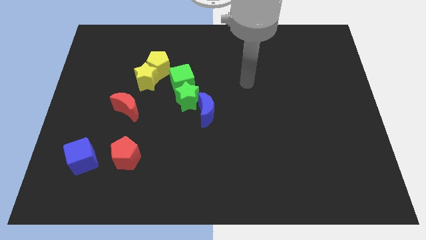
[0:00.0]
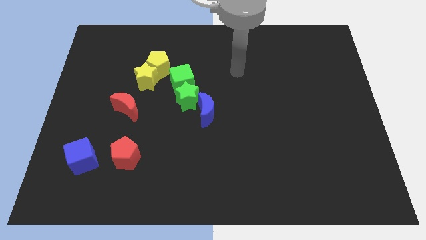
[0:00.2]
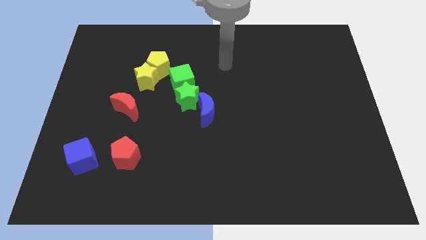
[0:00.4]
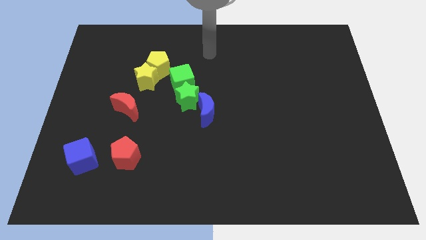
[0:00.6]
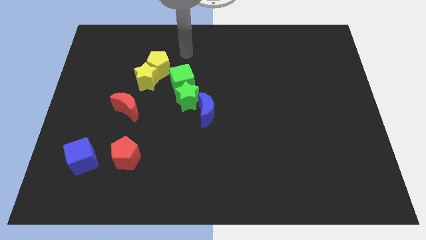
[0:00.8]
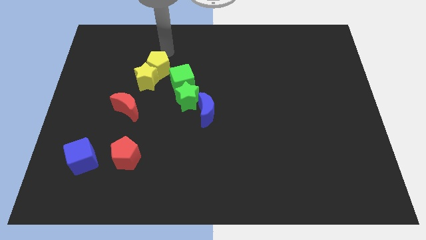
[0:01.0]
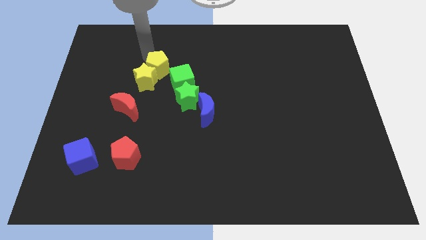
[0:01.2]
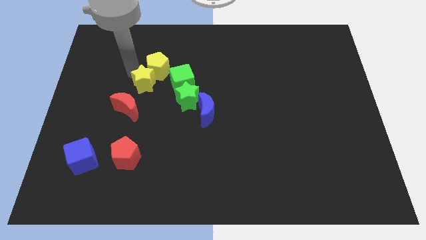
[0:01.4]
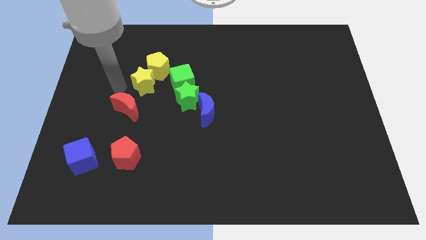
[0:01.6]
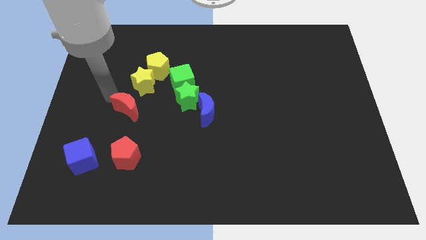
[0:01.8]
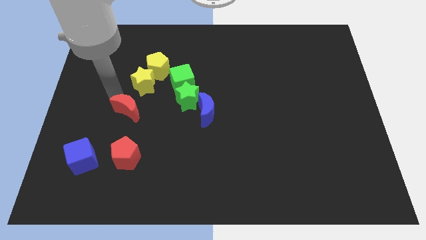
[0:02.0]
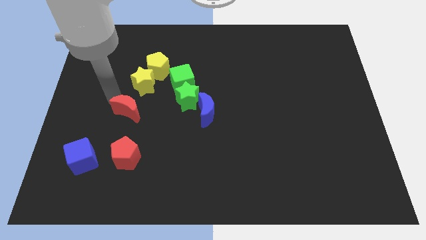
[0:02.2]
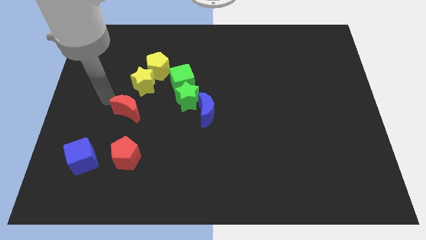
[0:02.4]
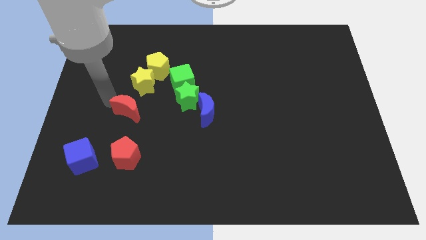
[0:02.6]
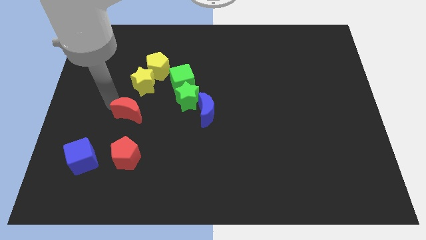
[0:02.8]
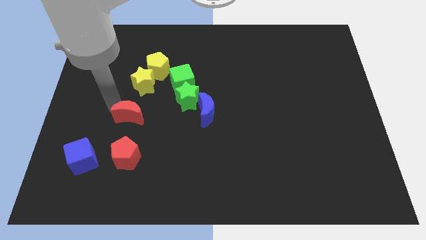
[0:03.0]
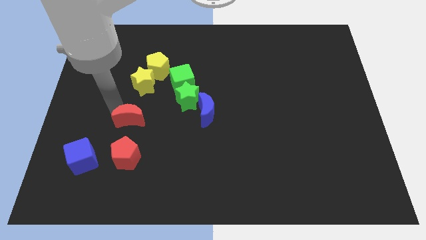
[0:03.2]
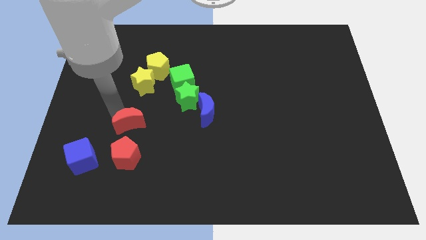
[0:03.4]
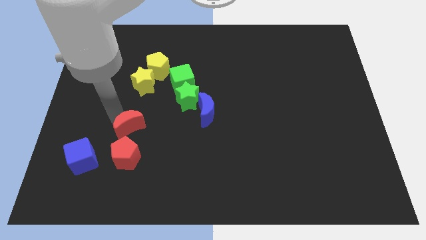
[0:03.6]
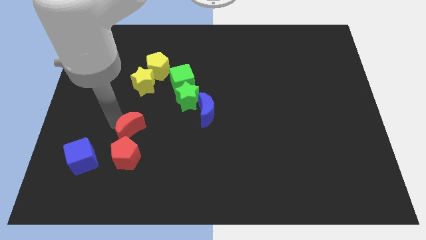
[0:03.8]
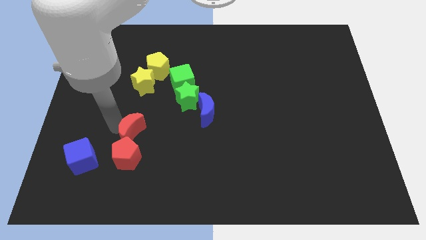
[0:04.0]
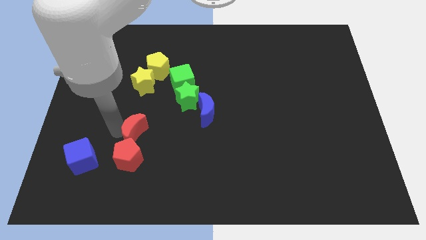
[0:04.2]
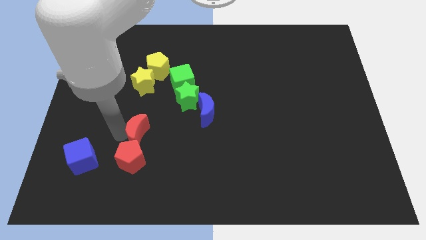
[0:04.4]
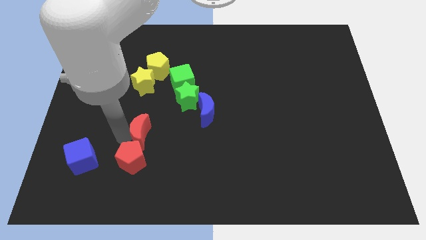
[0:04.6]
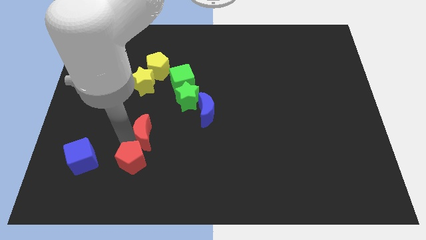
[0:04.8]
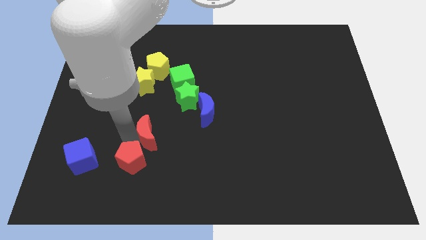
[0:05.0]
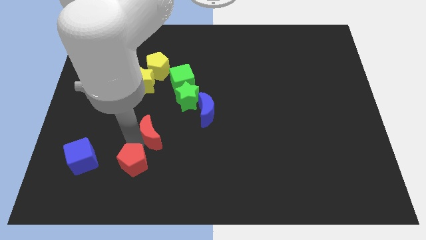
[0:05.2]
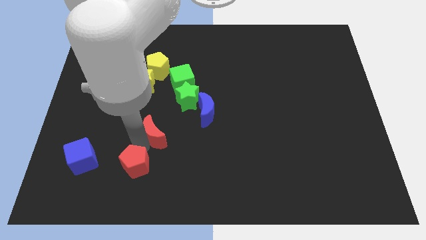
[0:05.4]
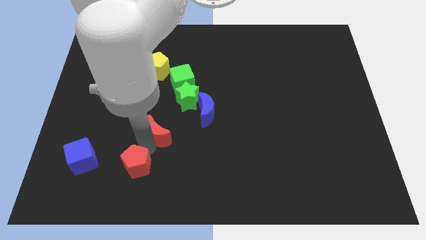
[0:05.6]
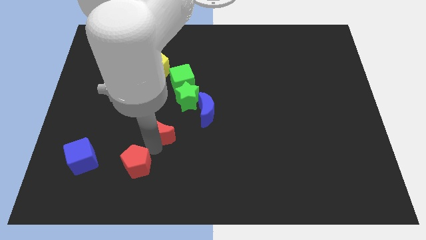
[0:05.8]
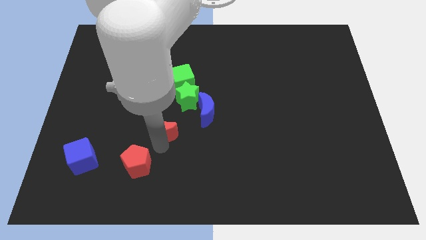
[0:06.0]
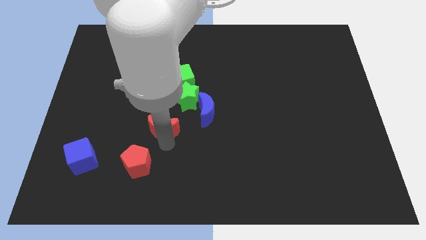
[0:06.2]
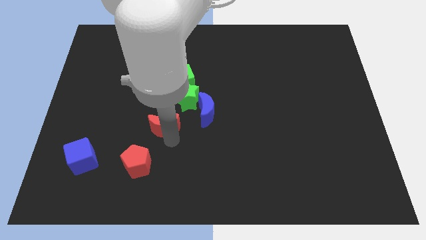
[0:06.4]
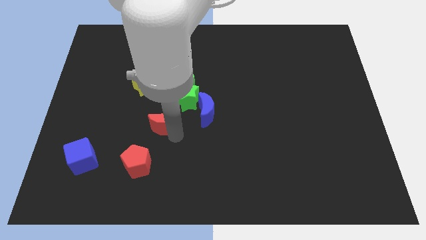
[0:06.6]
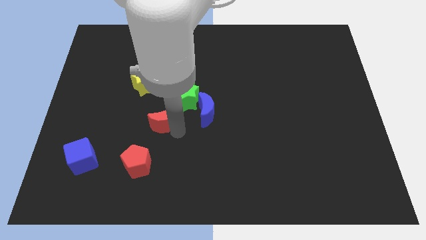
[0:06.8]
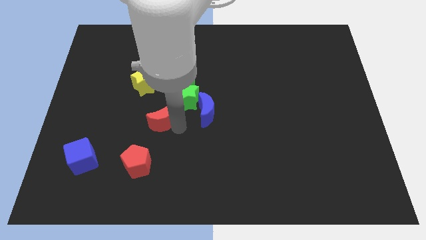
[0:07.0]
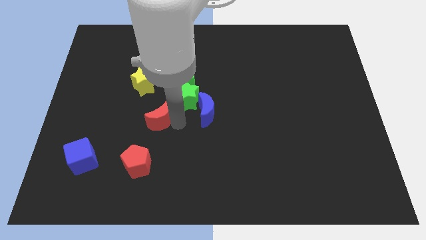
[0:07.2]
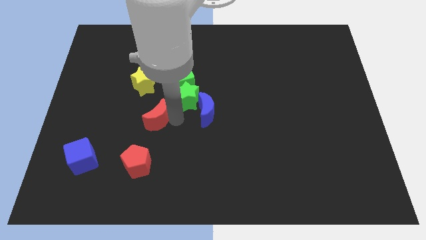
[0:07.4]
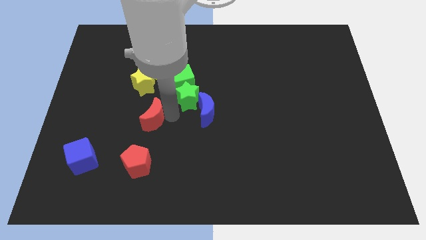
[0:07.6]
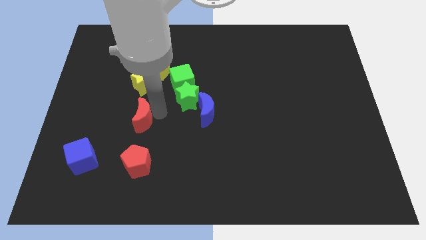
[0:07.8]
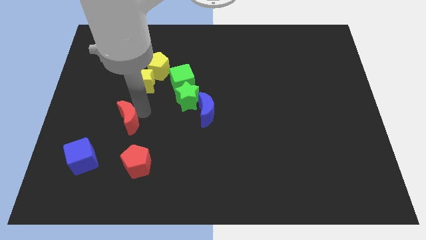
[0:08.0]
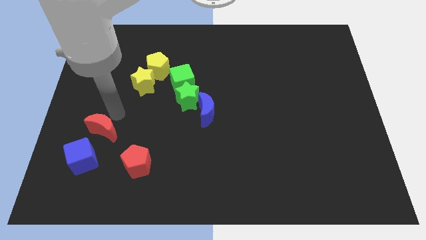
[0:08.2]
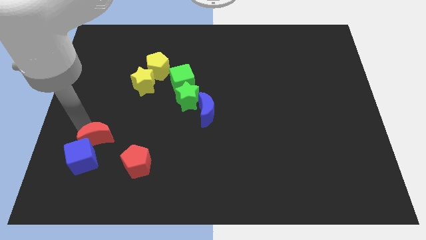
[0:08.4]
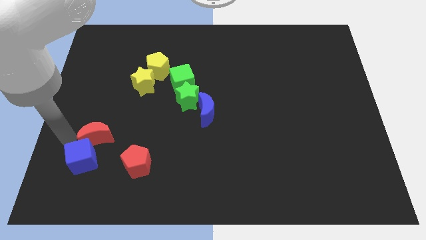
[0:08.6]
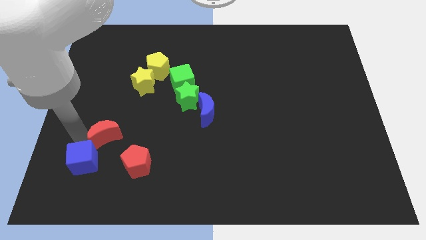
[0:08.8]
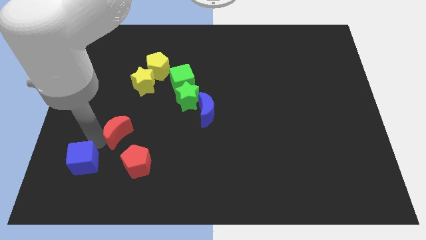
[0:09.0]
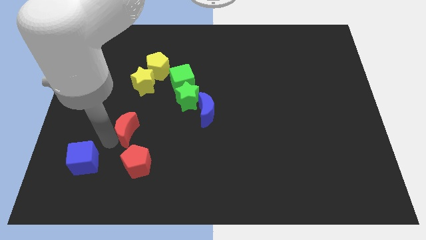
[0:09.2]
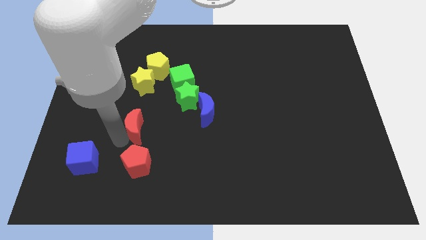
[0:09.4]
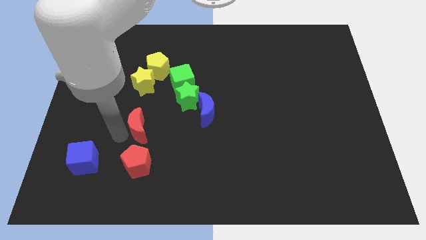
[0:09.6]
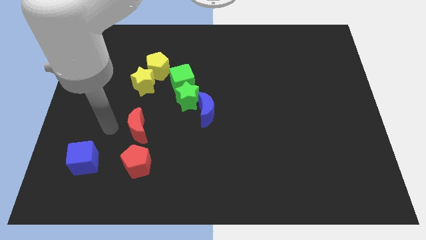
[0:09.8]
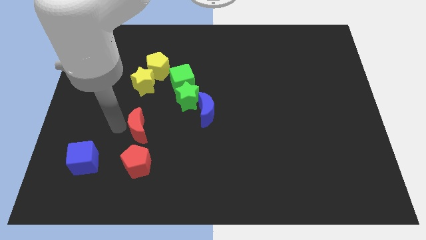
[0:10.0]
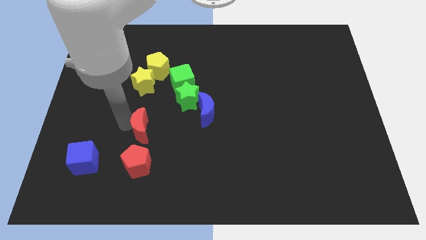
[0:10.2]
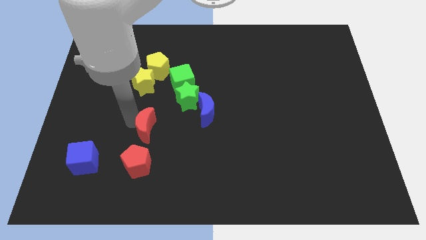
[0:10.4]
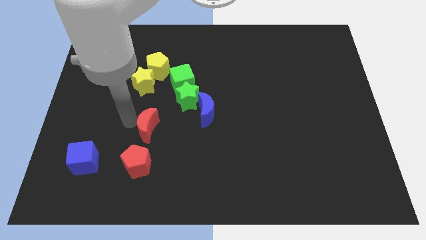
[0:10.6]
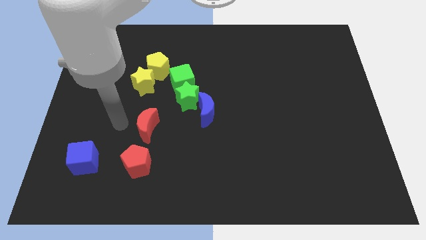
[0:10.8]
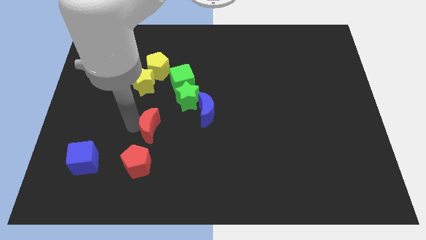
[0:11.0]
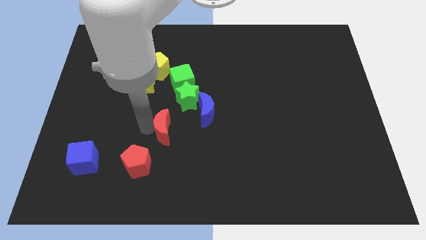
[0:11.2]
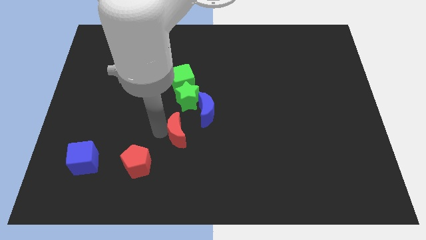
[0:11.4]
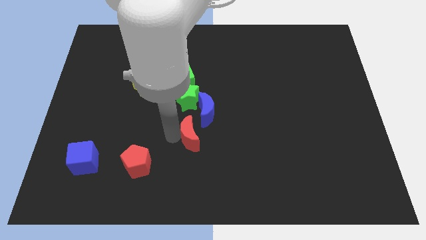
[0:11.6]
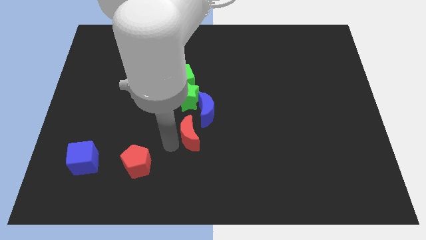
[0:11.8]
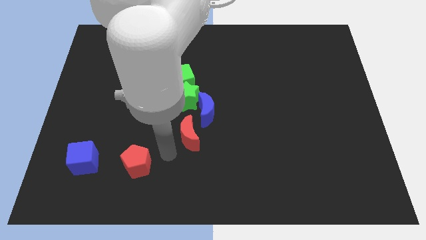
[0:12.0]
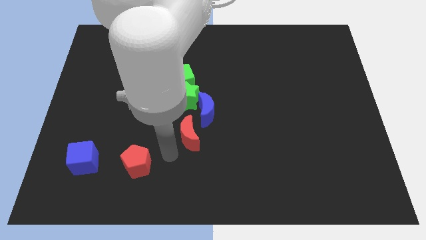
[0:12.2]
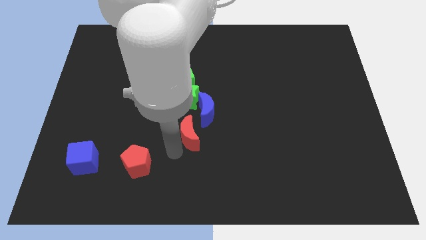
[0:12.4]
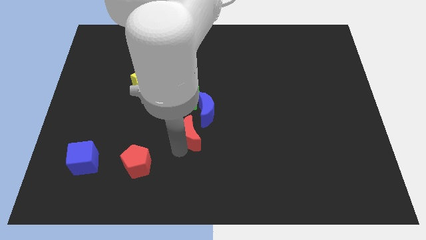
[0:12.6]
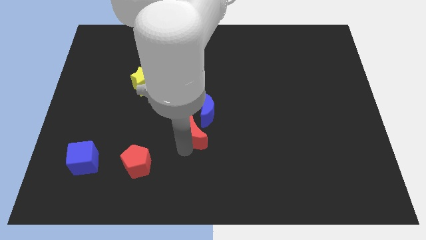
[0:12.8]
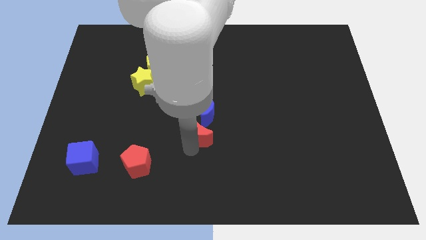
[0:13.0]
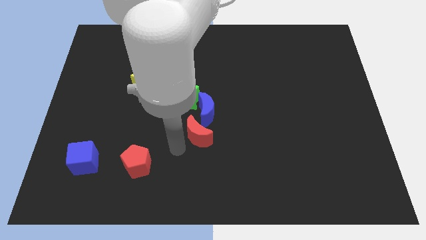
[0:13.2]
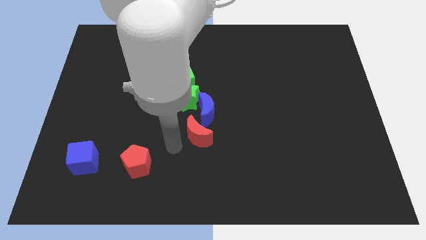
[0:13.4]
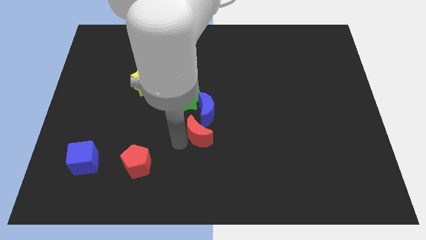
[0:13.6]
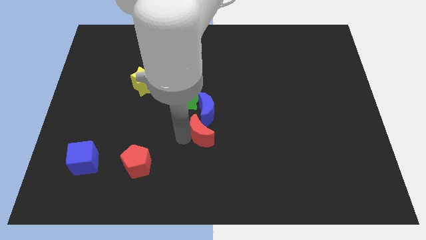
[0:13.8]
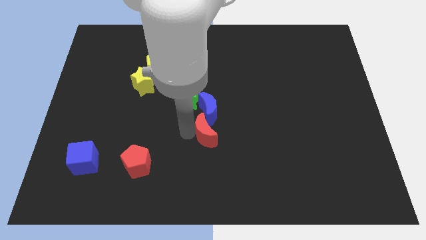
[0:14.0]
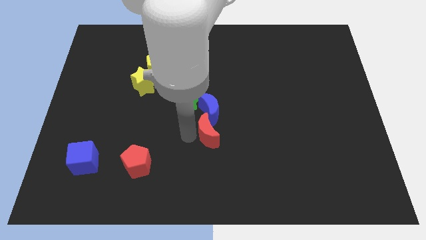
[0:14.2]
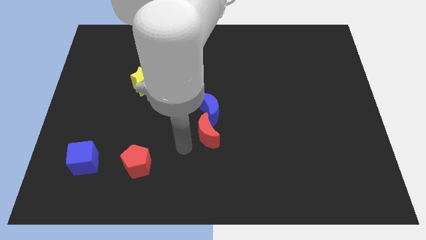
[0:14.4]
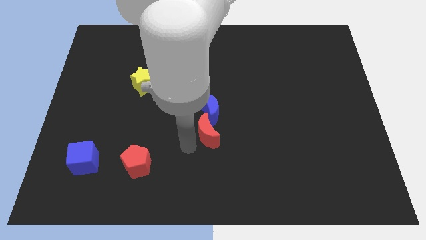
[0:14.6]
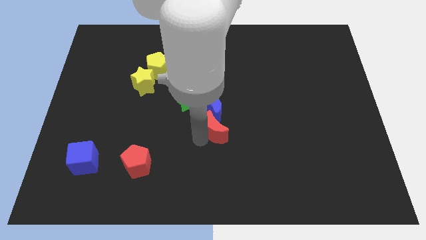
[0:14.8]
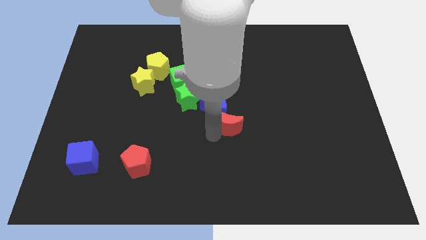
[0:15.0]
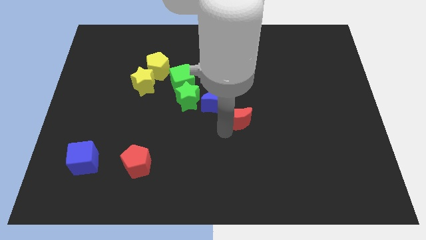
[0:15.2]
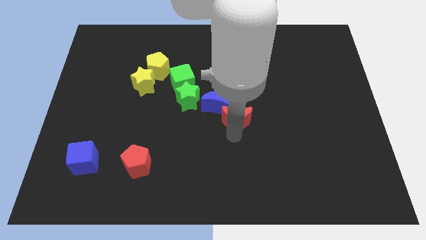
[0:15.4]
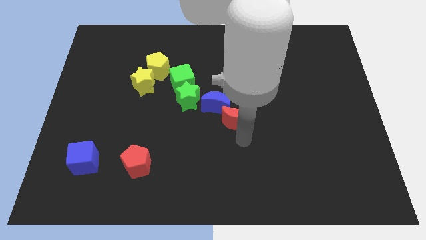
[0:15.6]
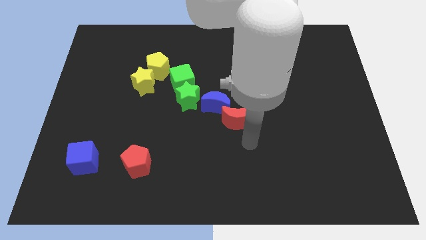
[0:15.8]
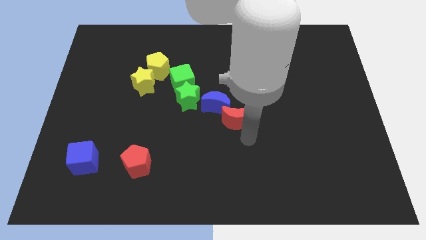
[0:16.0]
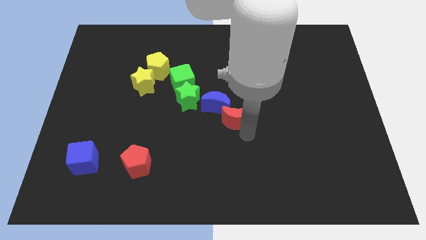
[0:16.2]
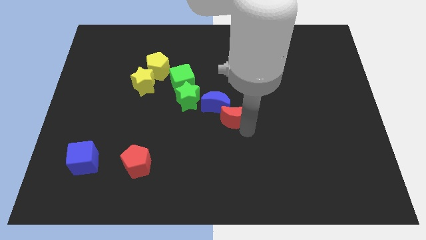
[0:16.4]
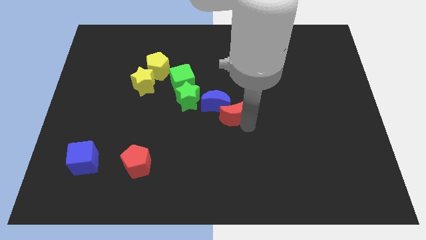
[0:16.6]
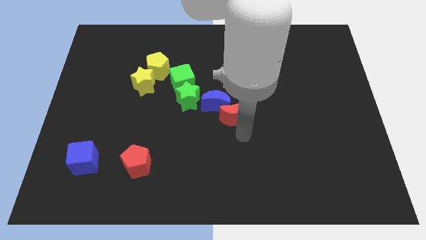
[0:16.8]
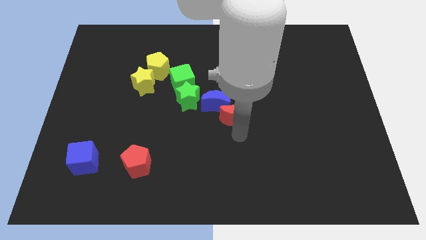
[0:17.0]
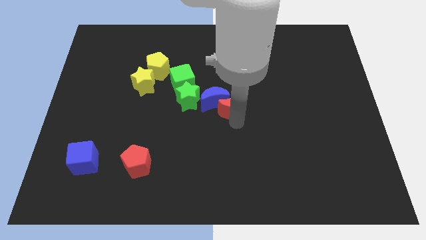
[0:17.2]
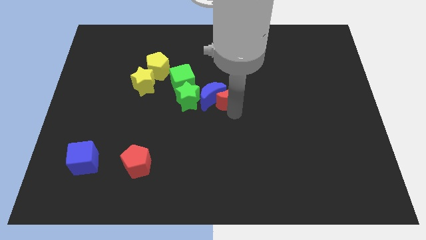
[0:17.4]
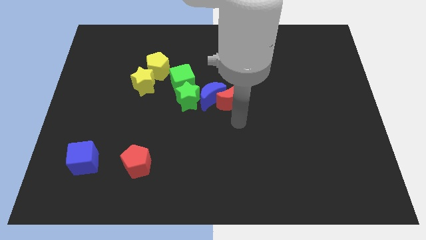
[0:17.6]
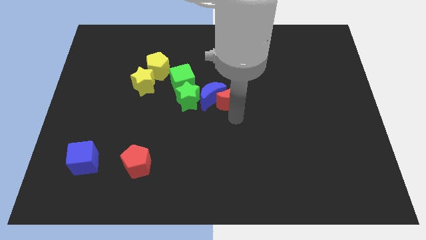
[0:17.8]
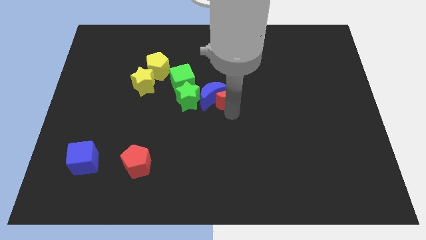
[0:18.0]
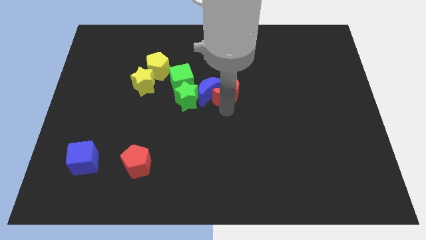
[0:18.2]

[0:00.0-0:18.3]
move the red moon just right of the green cube
